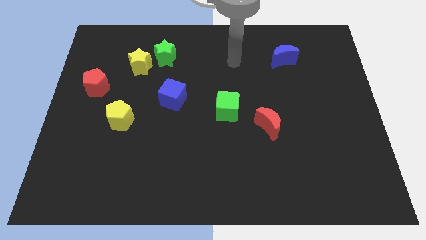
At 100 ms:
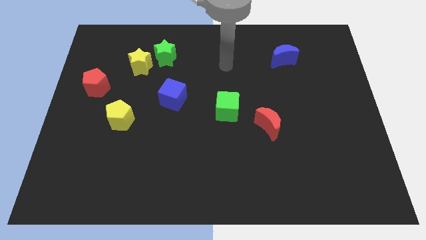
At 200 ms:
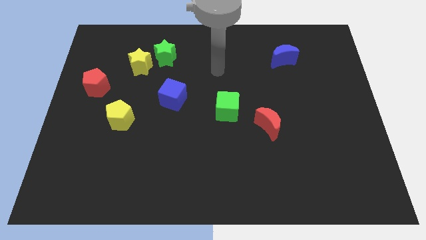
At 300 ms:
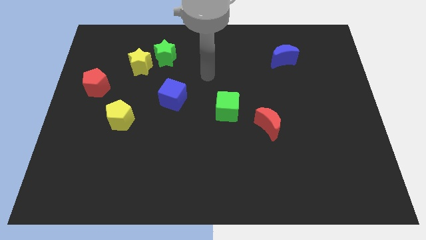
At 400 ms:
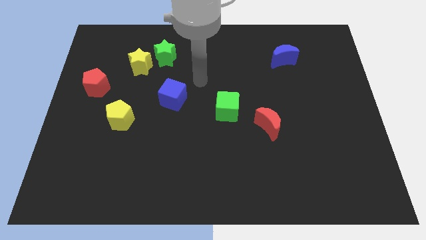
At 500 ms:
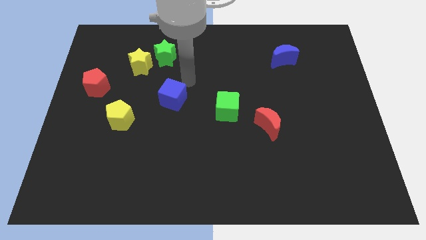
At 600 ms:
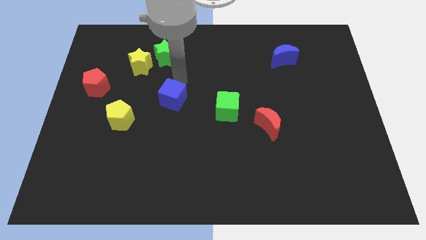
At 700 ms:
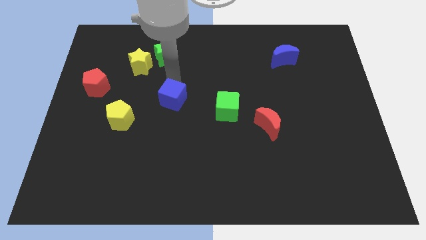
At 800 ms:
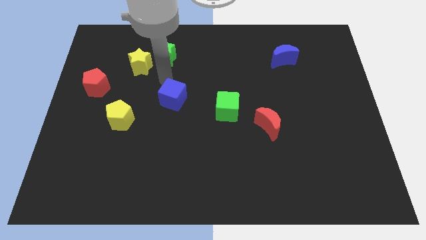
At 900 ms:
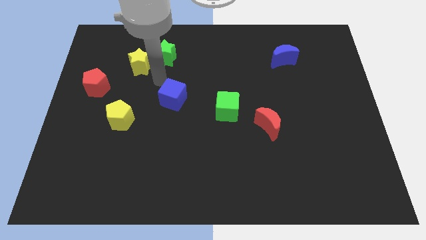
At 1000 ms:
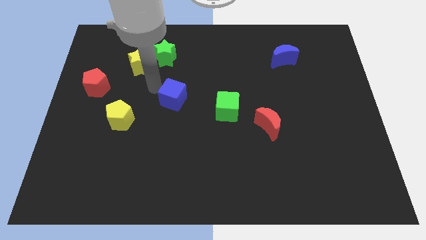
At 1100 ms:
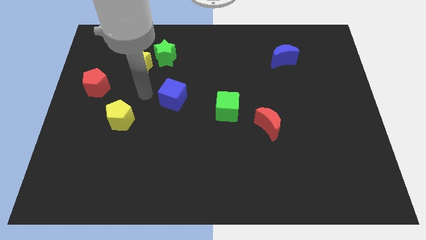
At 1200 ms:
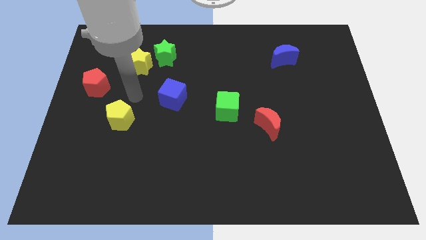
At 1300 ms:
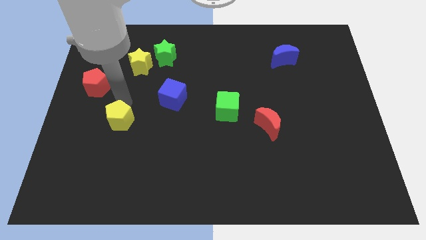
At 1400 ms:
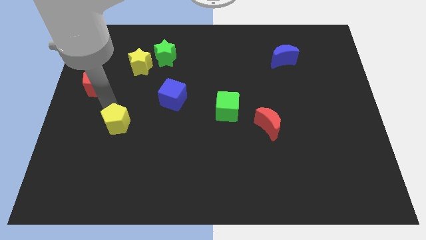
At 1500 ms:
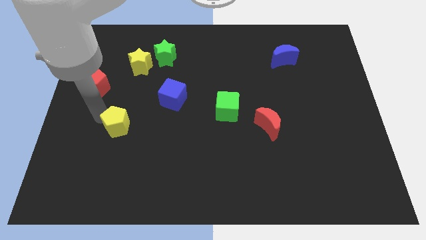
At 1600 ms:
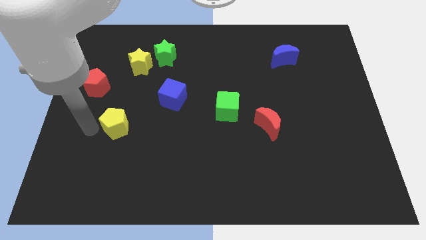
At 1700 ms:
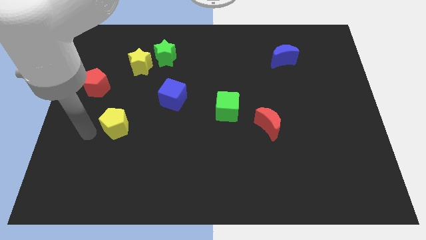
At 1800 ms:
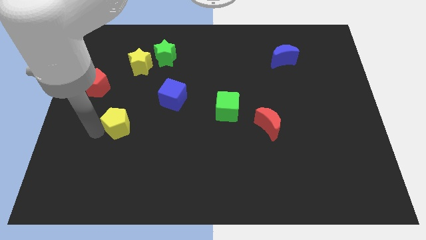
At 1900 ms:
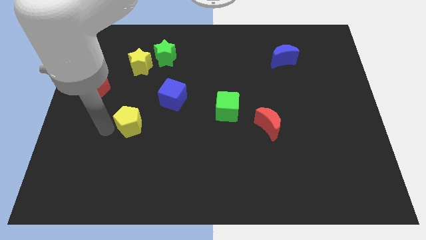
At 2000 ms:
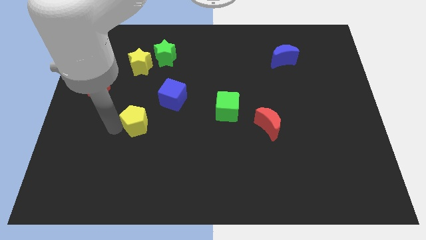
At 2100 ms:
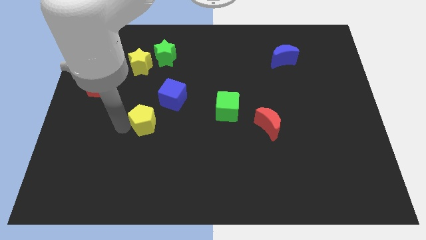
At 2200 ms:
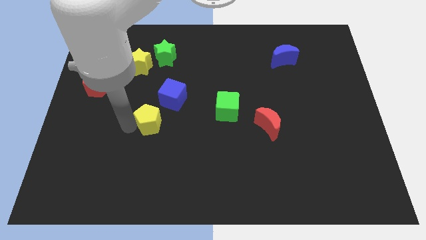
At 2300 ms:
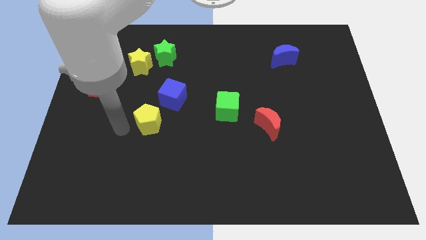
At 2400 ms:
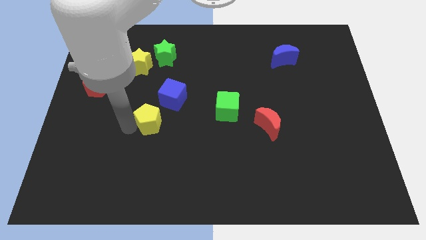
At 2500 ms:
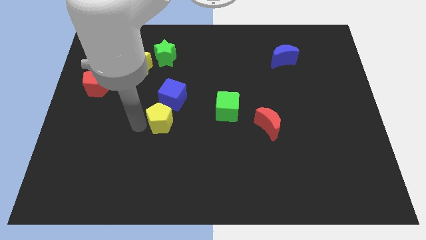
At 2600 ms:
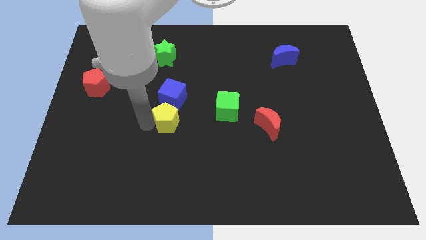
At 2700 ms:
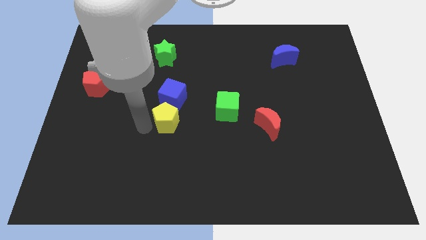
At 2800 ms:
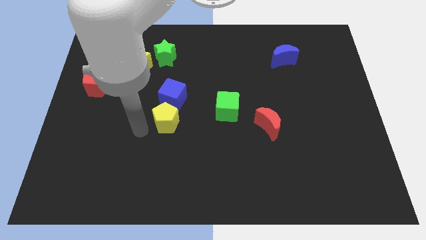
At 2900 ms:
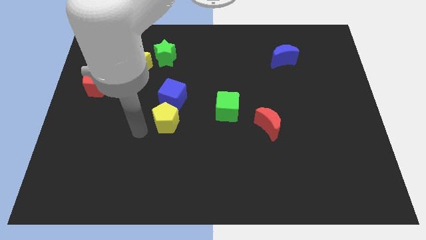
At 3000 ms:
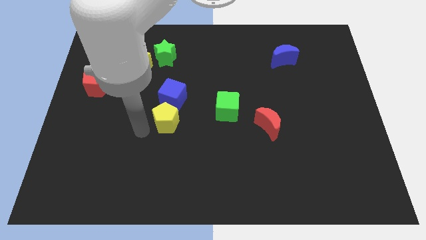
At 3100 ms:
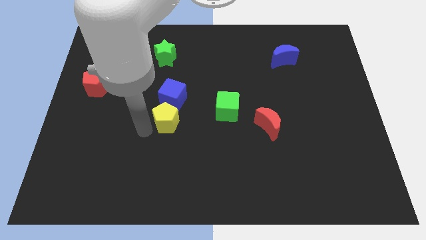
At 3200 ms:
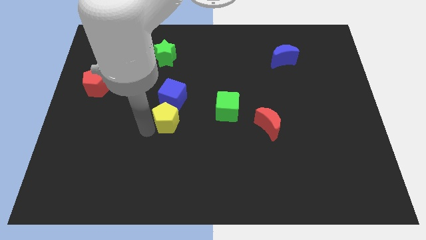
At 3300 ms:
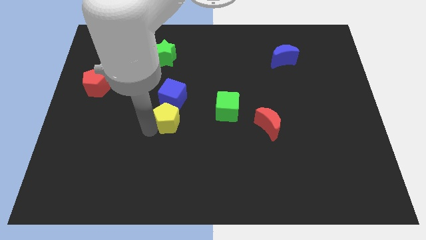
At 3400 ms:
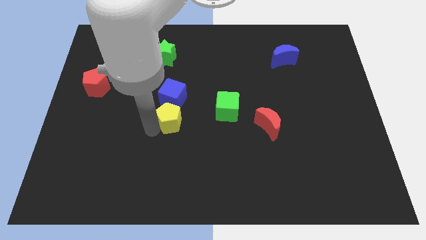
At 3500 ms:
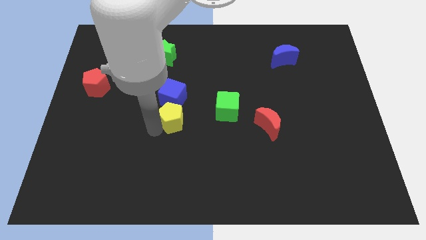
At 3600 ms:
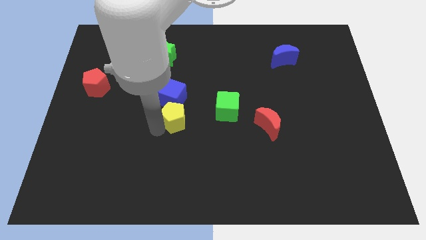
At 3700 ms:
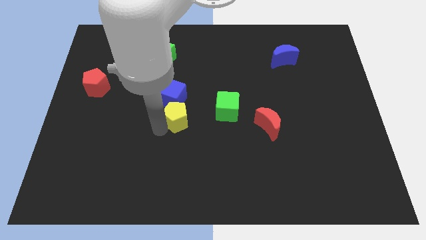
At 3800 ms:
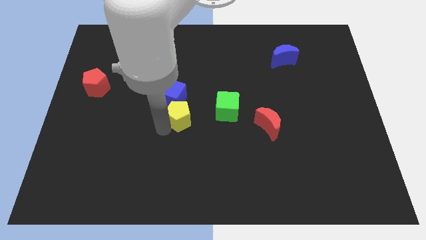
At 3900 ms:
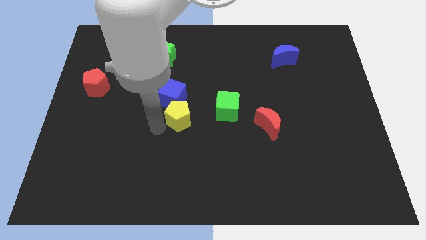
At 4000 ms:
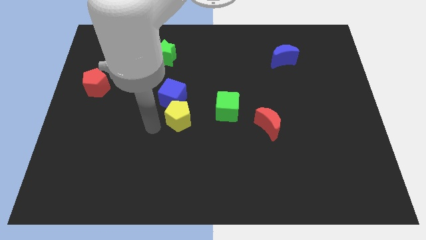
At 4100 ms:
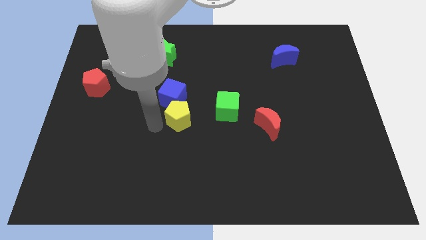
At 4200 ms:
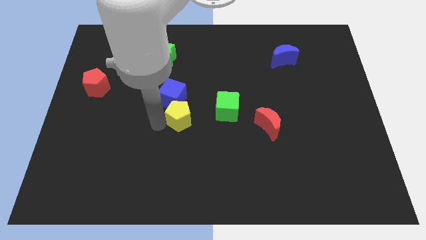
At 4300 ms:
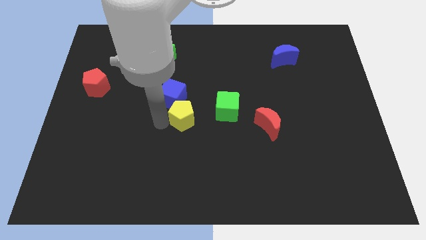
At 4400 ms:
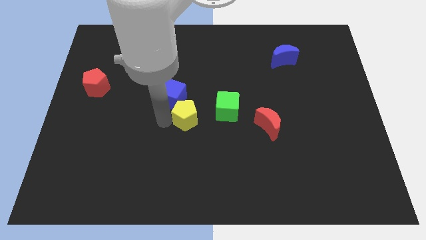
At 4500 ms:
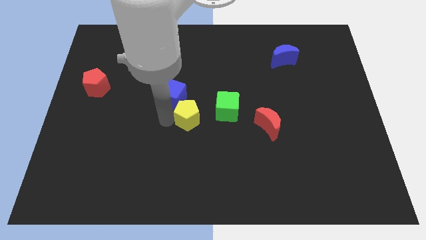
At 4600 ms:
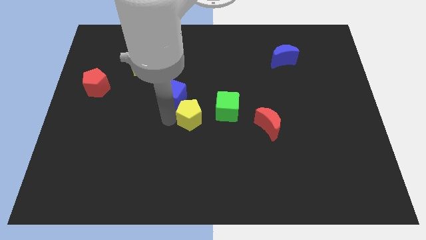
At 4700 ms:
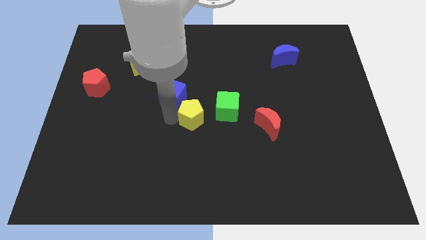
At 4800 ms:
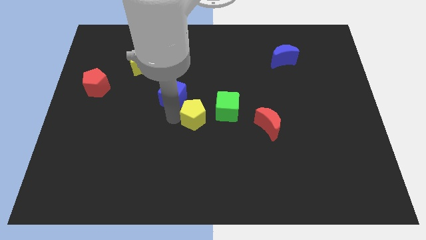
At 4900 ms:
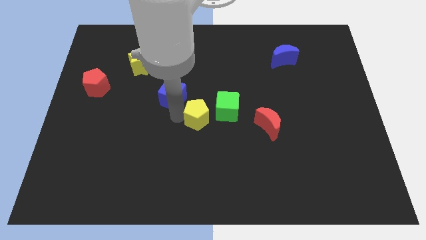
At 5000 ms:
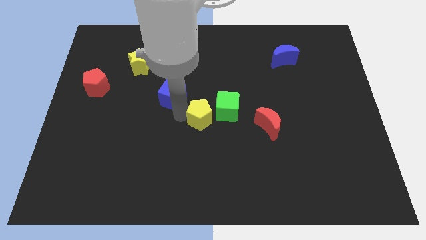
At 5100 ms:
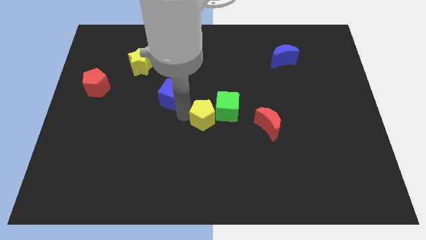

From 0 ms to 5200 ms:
put the yellow pentagon towards the green cube

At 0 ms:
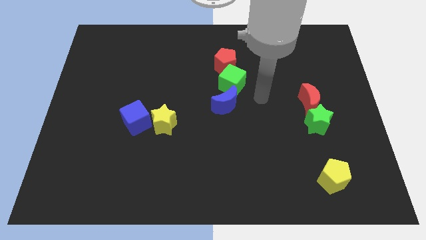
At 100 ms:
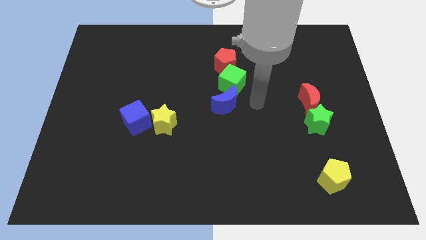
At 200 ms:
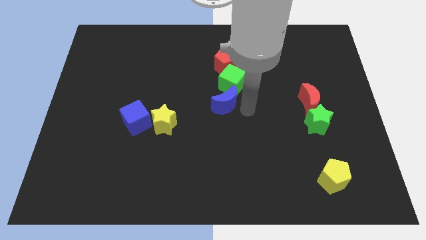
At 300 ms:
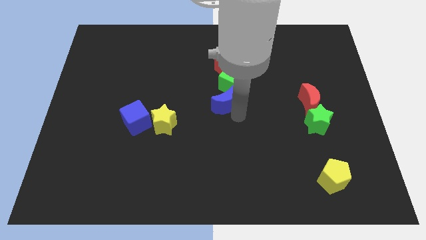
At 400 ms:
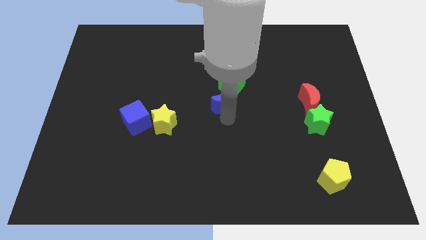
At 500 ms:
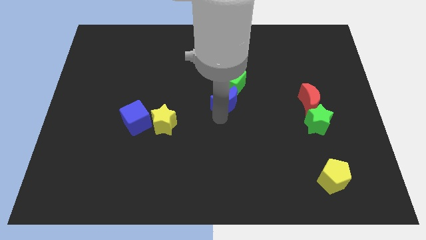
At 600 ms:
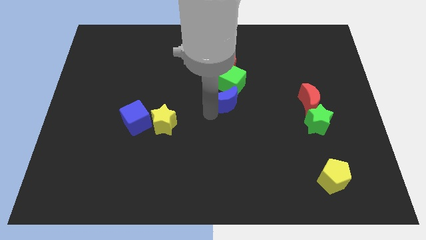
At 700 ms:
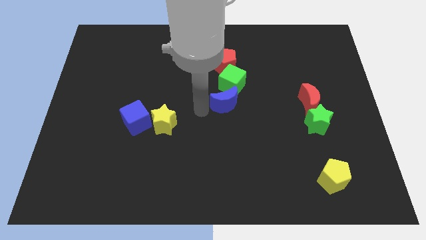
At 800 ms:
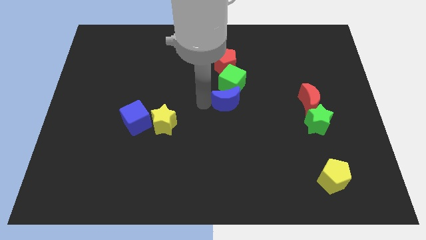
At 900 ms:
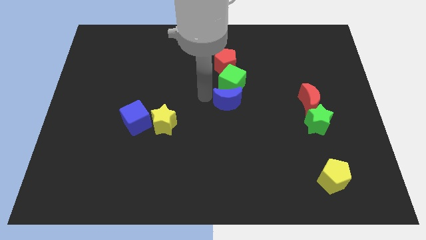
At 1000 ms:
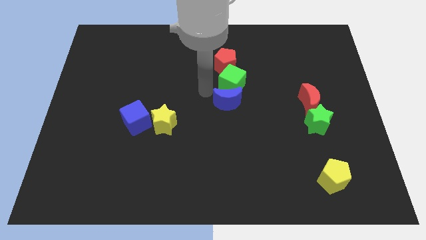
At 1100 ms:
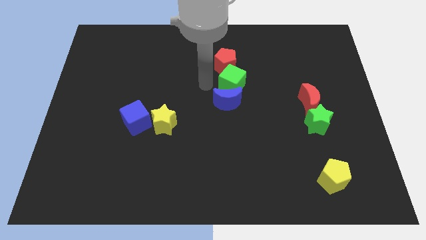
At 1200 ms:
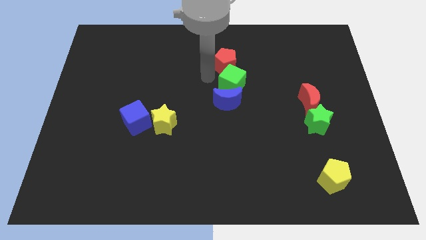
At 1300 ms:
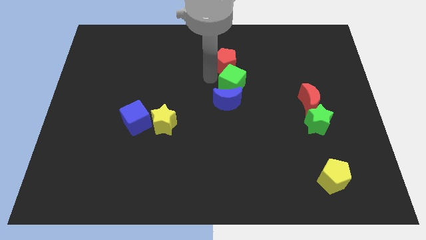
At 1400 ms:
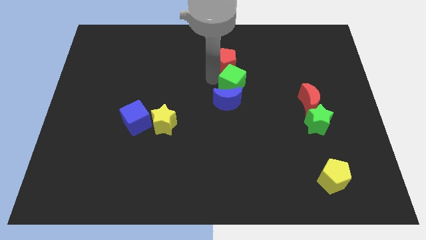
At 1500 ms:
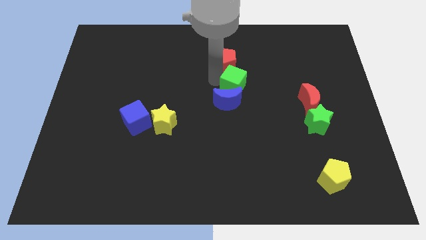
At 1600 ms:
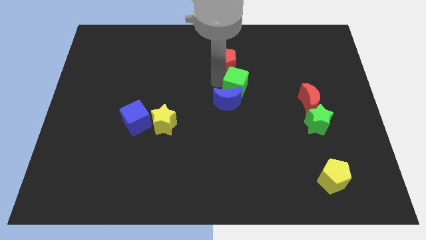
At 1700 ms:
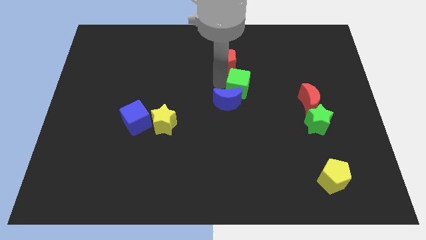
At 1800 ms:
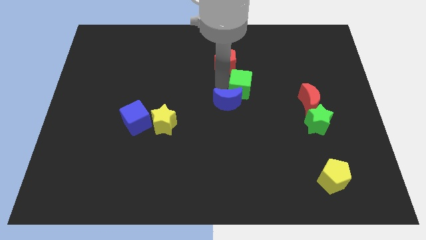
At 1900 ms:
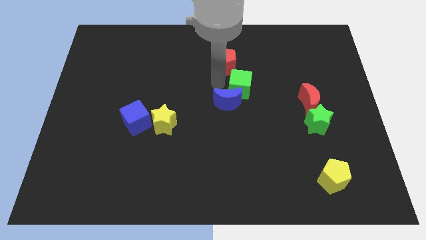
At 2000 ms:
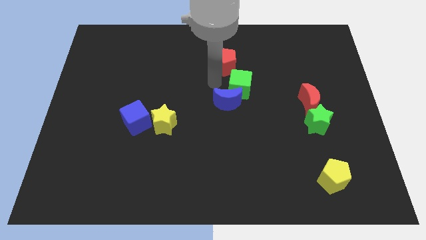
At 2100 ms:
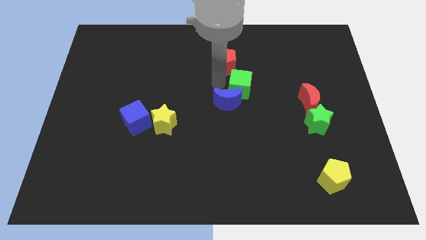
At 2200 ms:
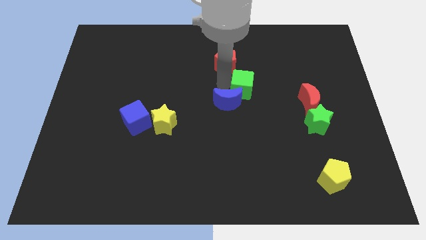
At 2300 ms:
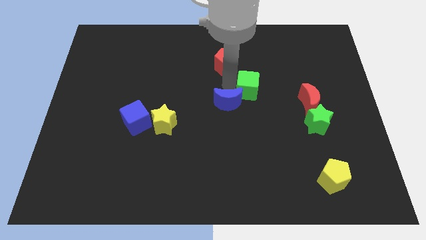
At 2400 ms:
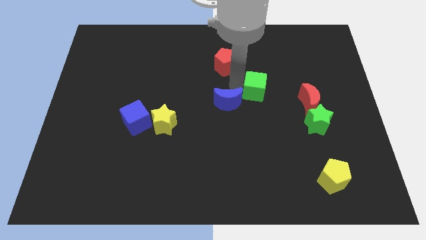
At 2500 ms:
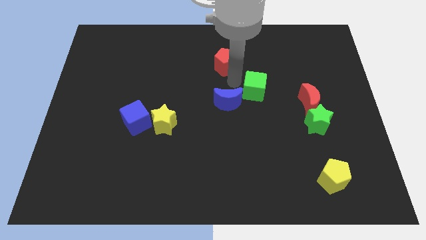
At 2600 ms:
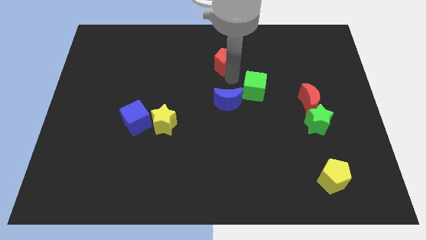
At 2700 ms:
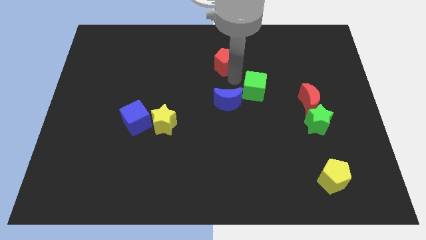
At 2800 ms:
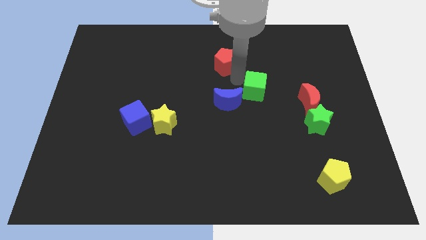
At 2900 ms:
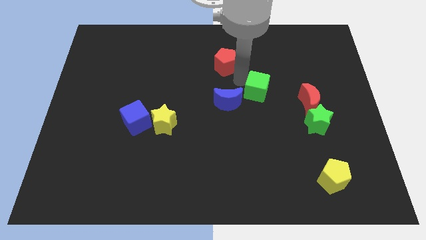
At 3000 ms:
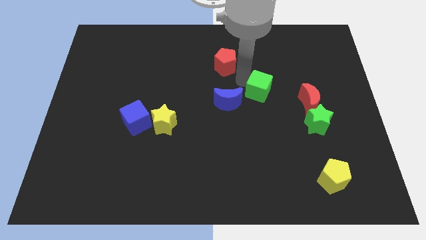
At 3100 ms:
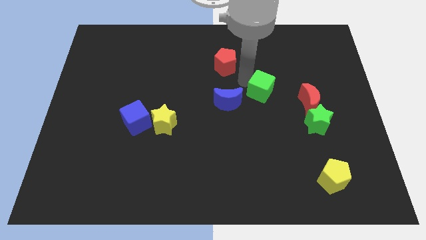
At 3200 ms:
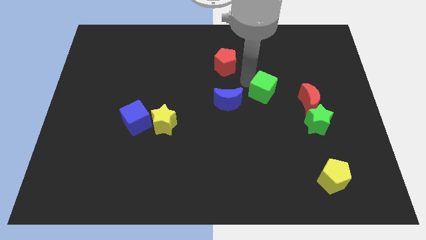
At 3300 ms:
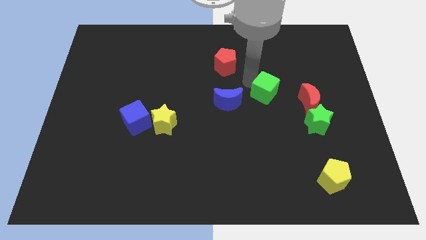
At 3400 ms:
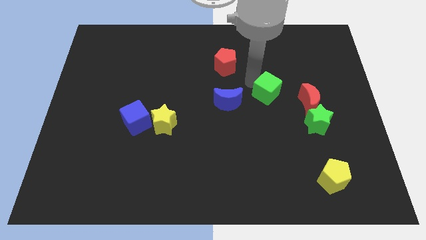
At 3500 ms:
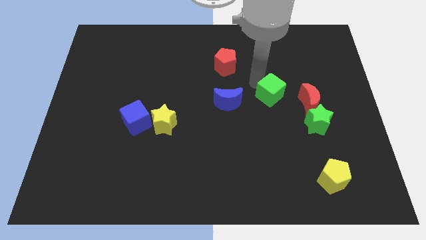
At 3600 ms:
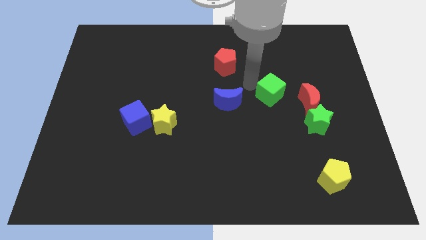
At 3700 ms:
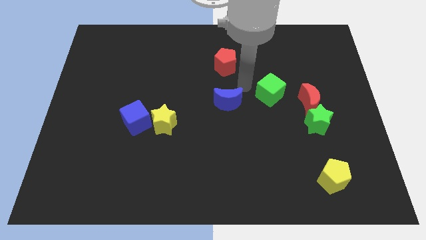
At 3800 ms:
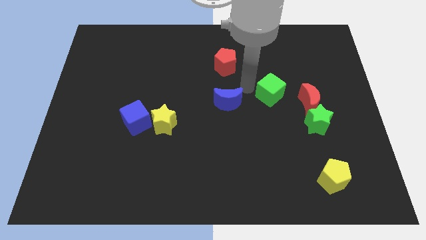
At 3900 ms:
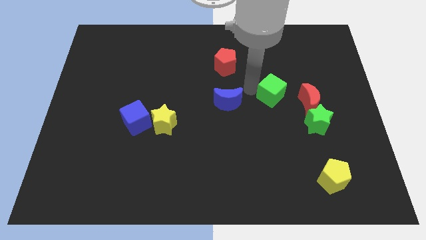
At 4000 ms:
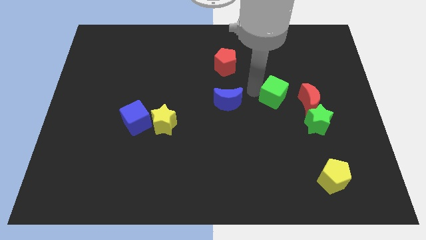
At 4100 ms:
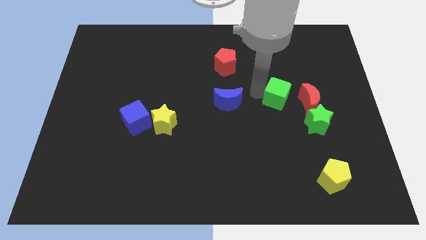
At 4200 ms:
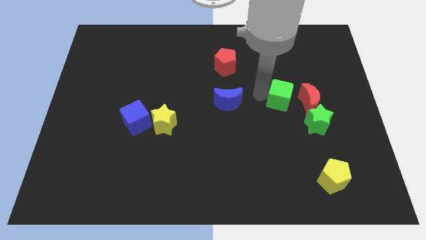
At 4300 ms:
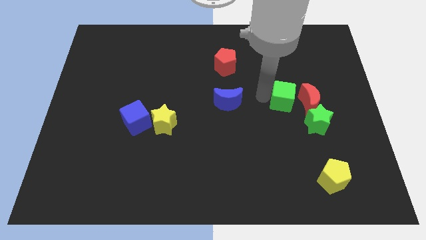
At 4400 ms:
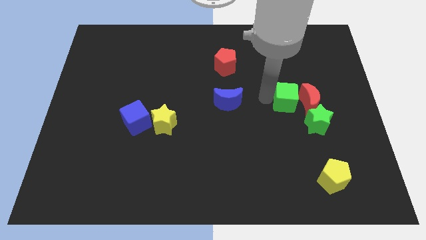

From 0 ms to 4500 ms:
slide the green cube to the red moon
